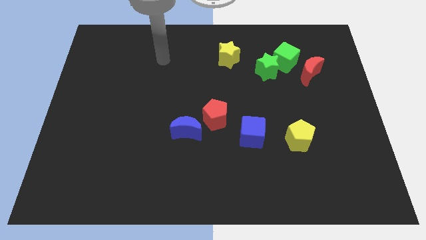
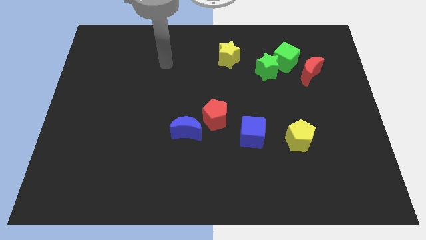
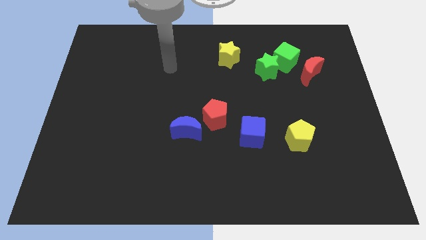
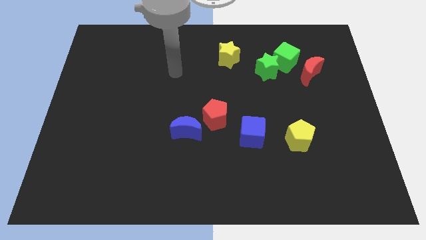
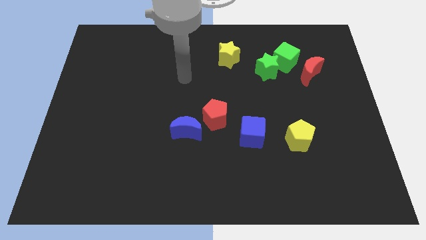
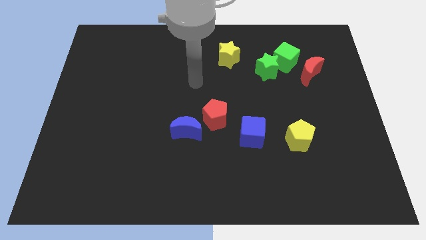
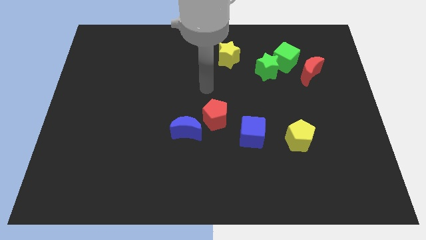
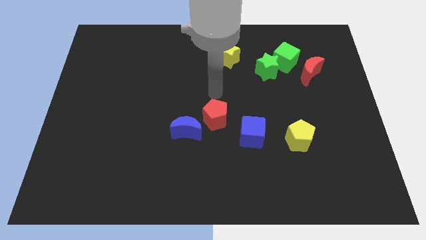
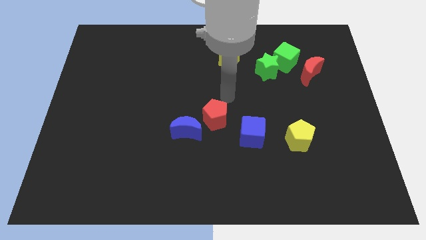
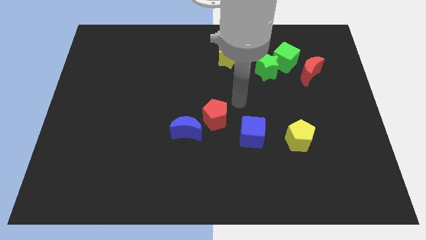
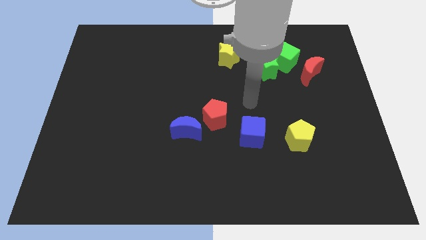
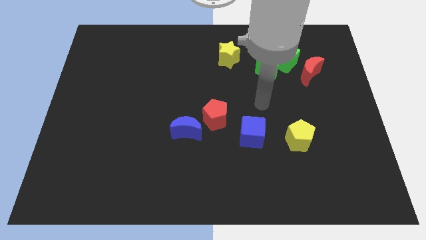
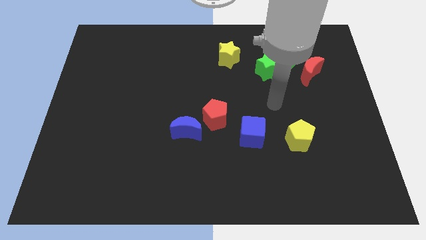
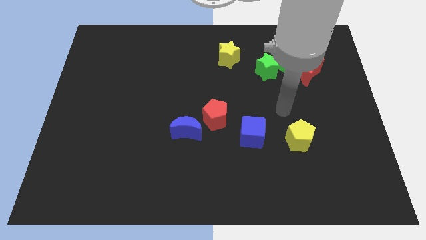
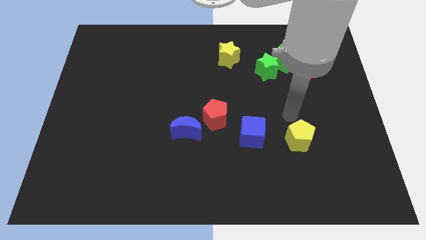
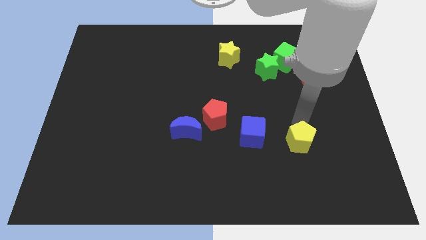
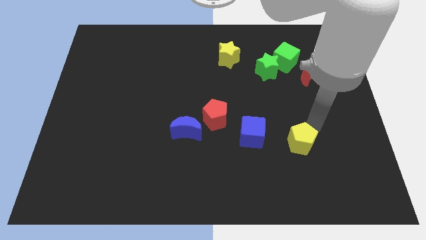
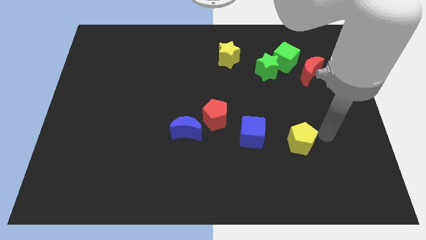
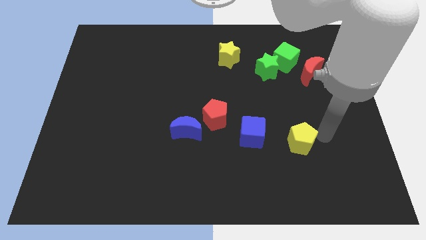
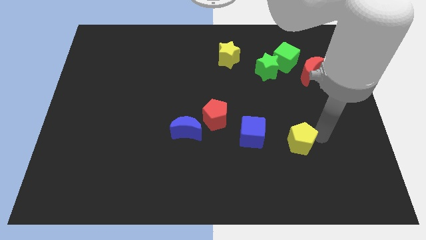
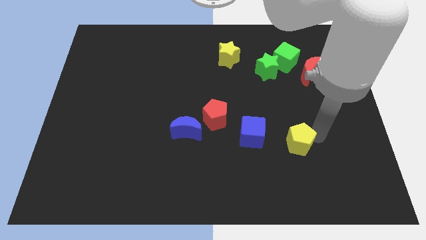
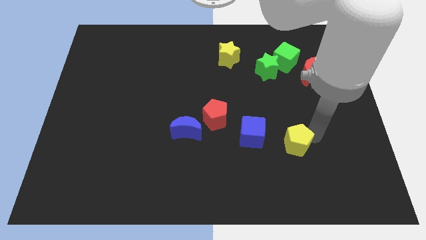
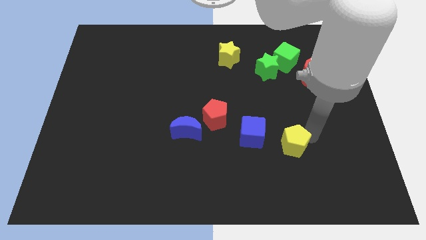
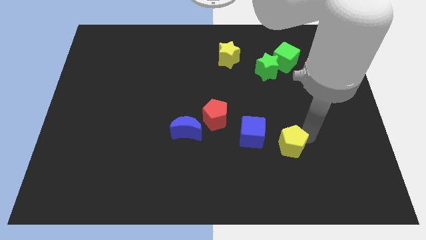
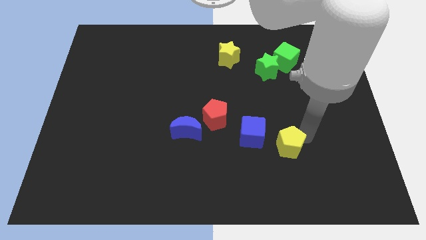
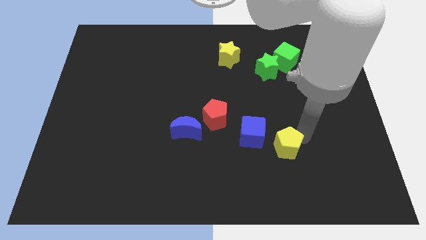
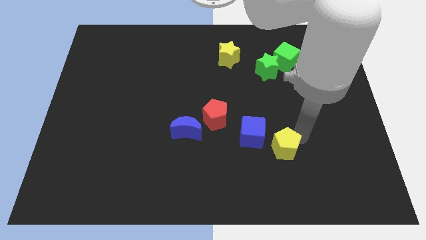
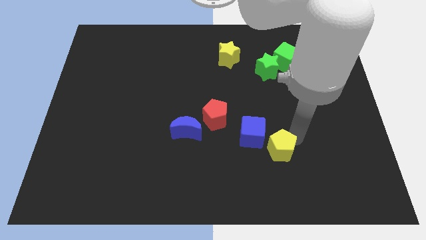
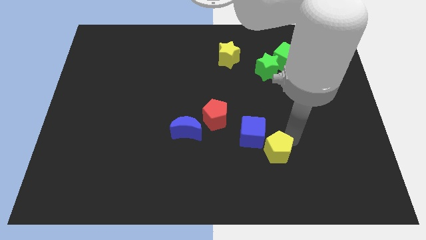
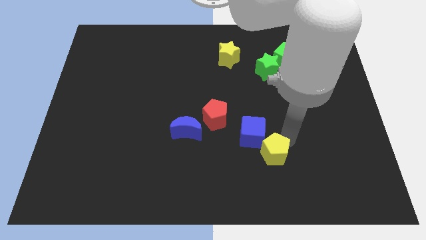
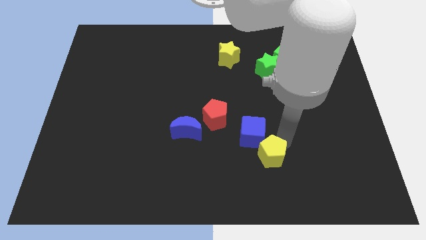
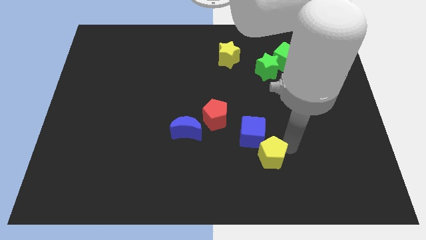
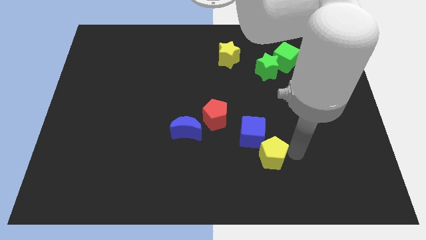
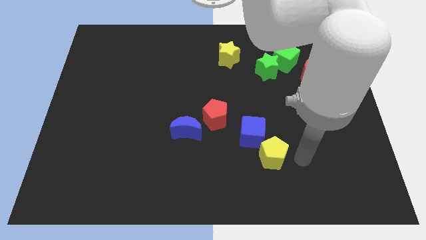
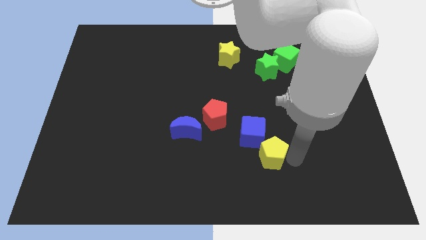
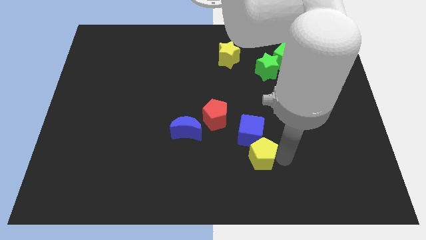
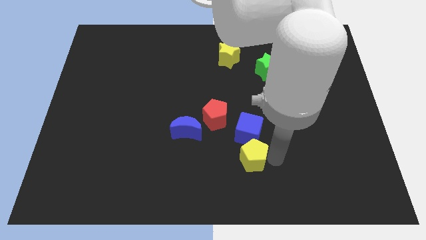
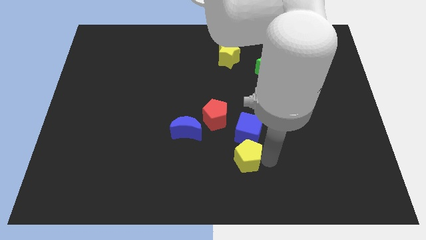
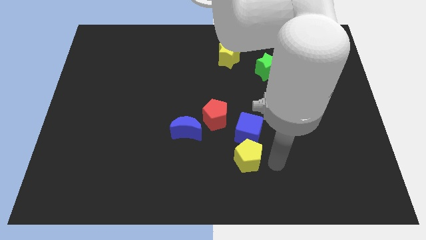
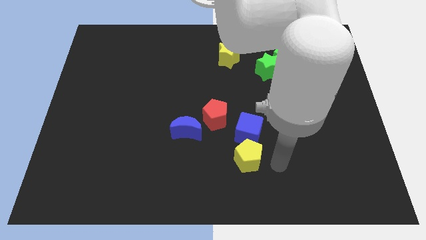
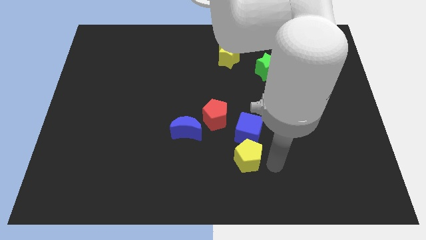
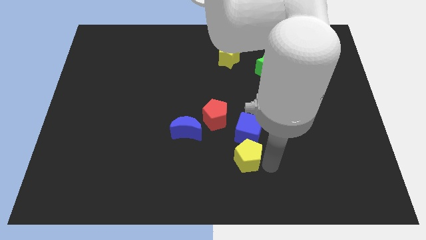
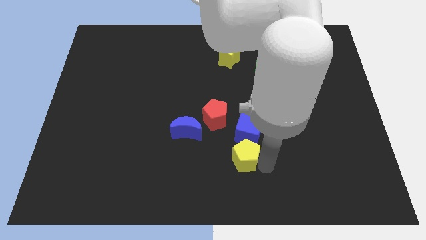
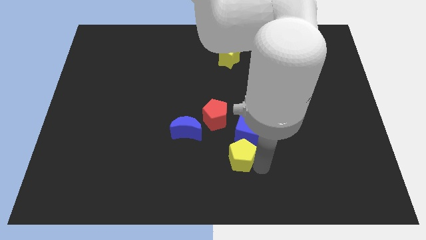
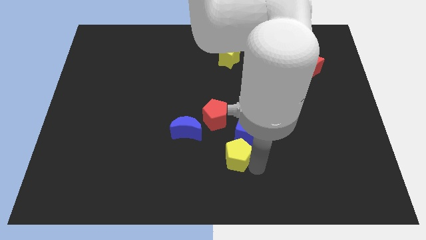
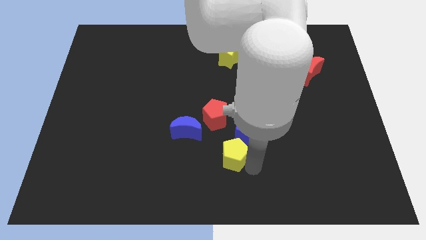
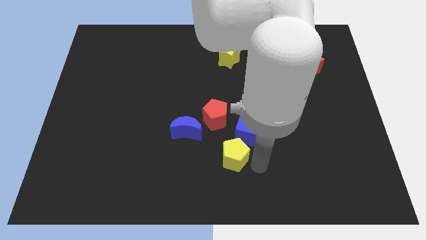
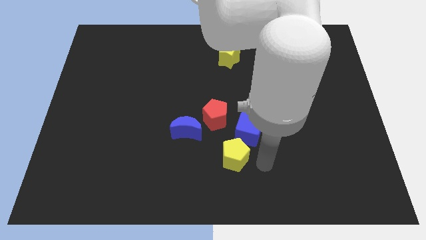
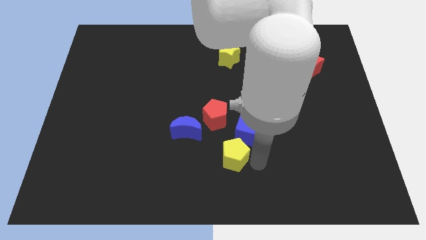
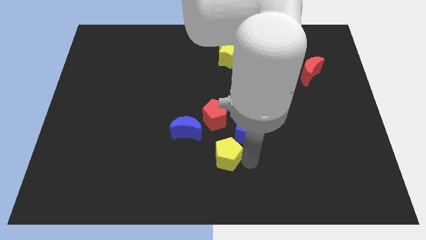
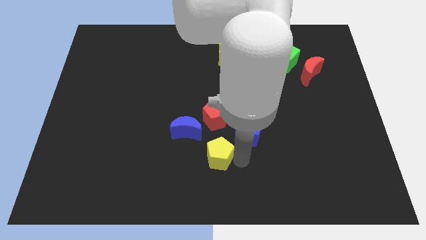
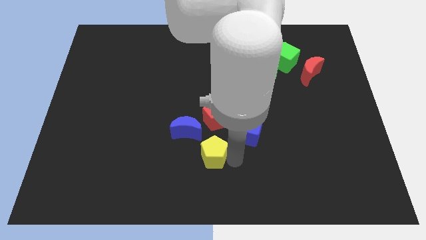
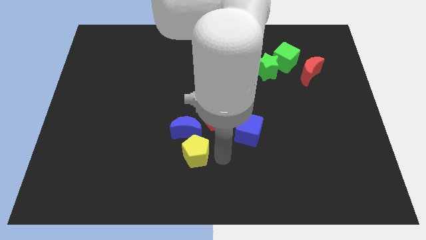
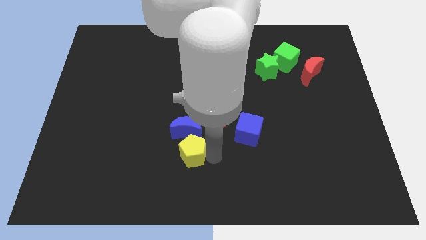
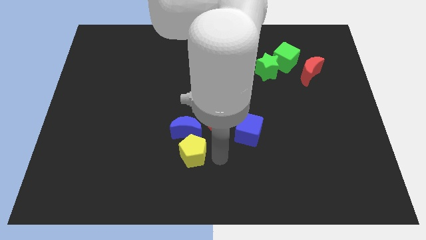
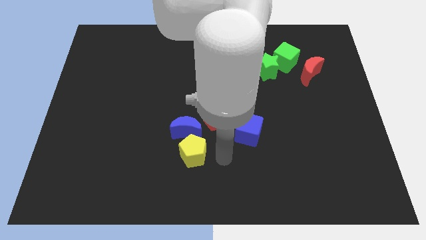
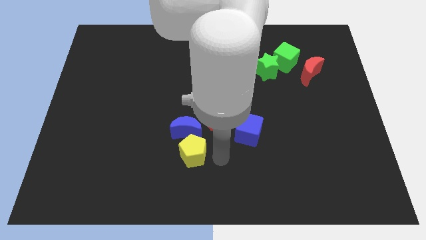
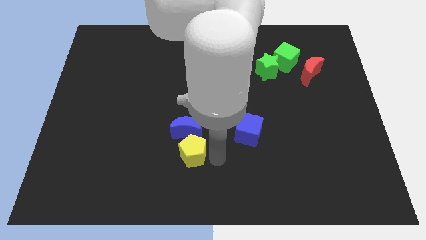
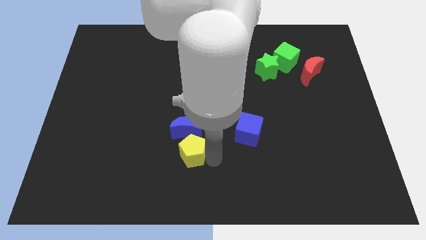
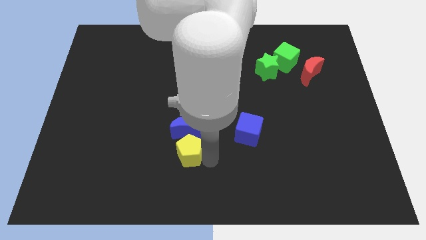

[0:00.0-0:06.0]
put the yellow pentagon to the bottom left side of the blue moon
